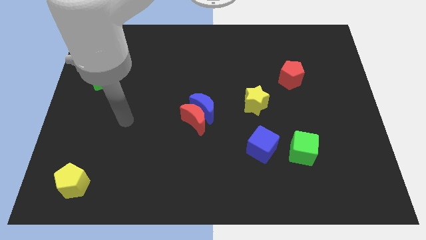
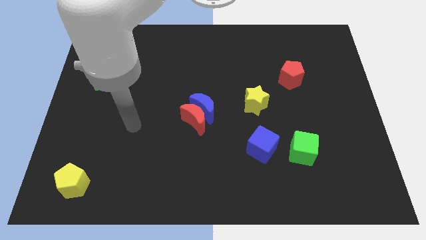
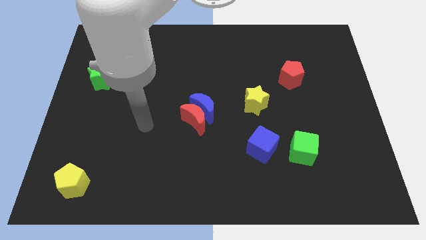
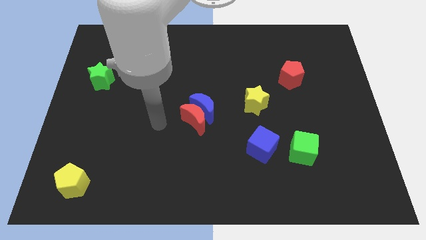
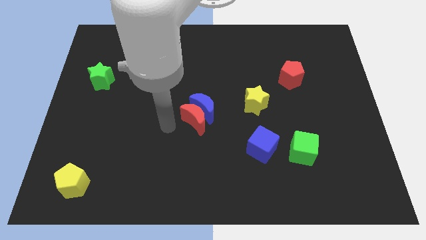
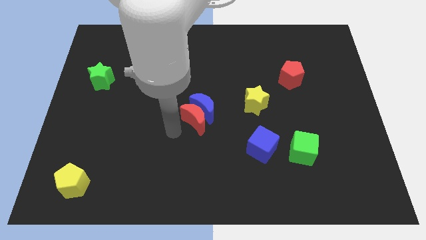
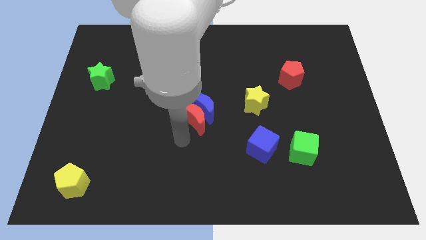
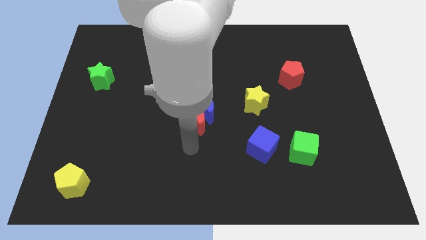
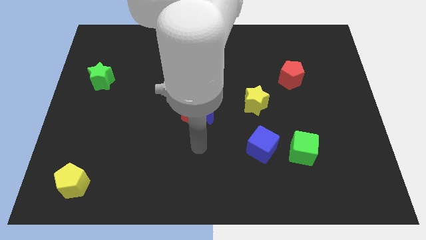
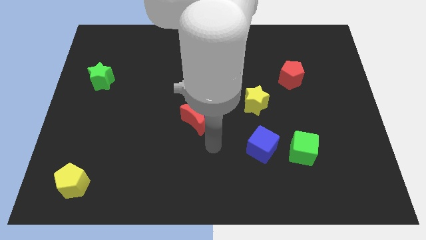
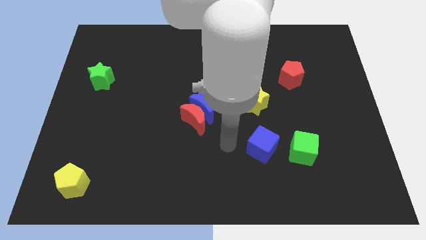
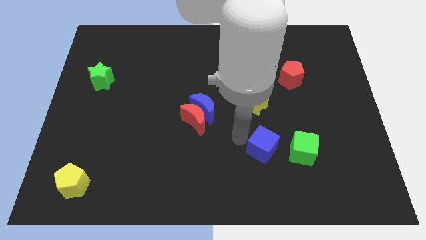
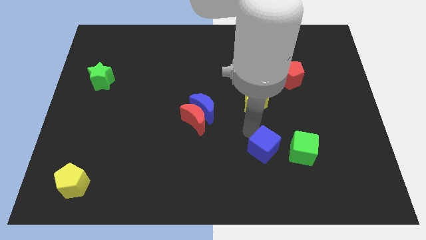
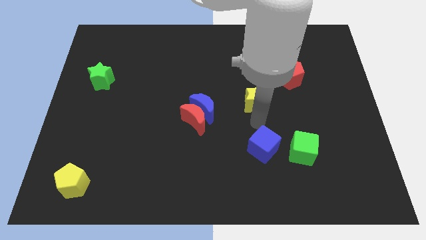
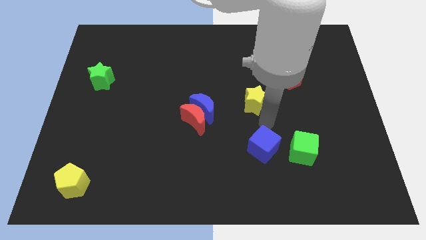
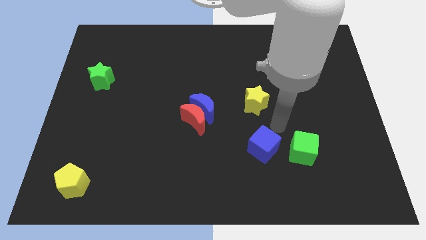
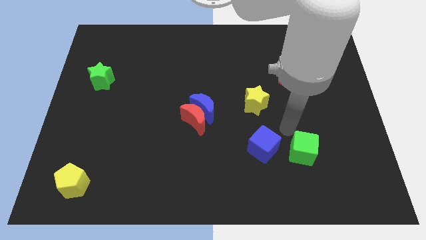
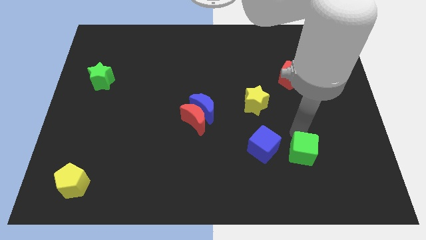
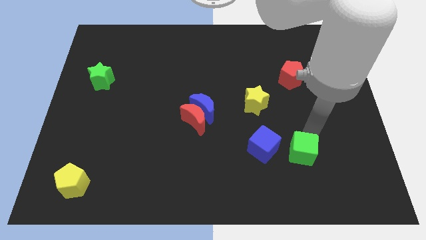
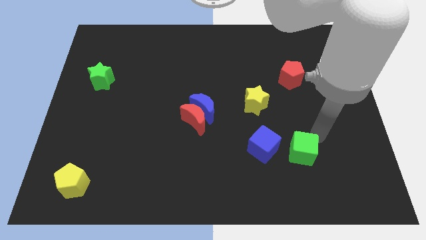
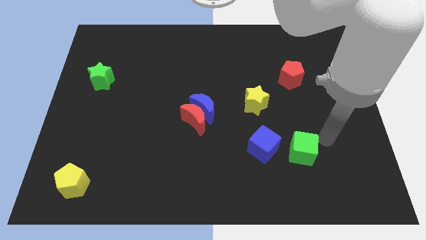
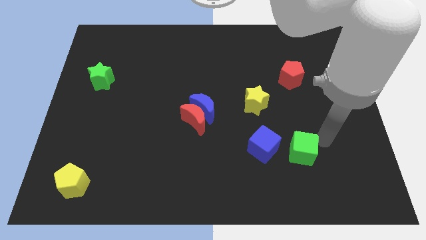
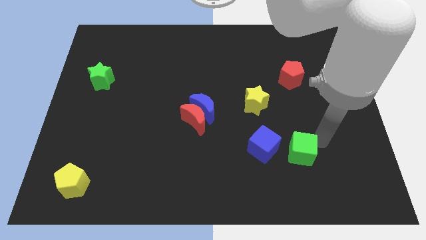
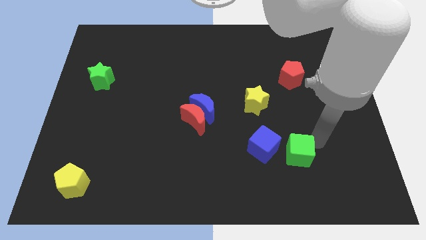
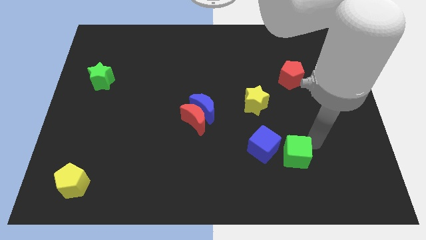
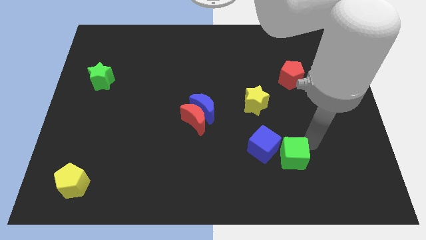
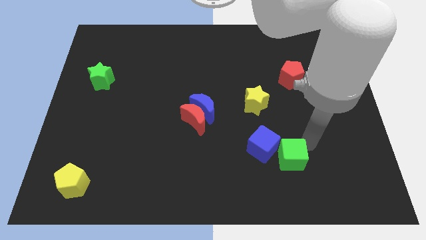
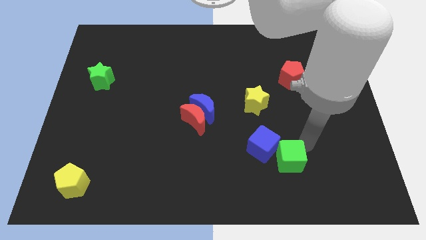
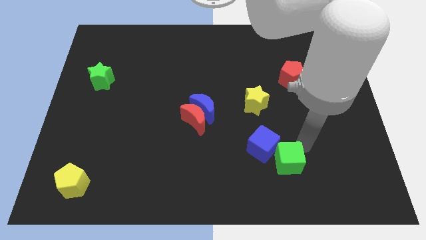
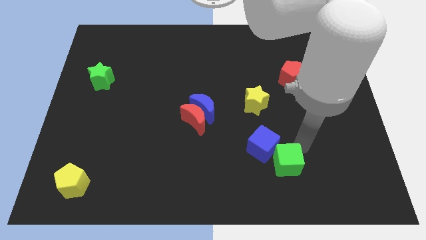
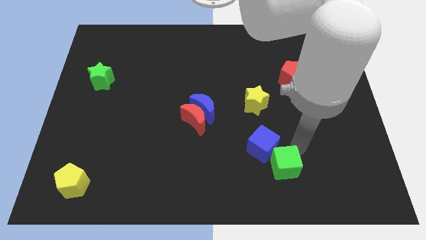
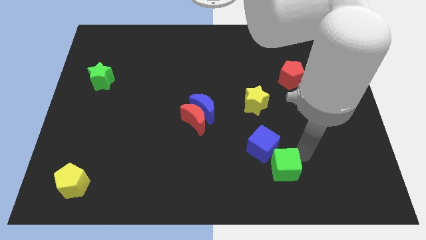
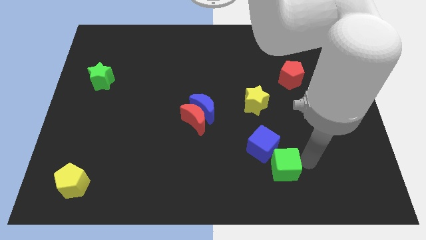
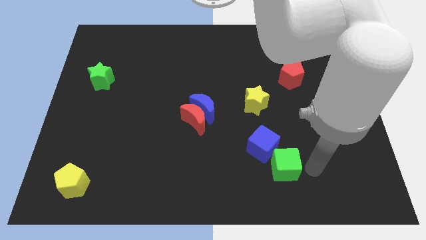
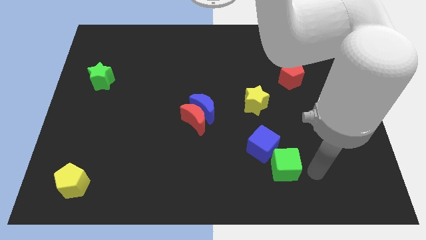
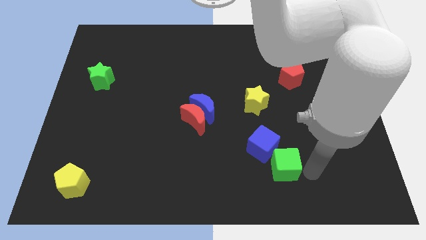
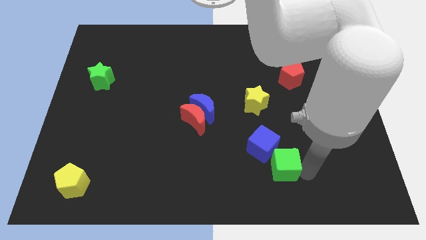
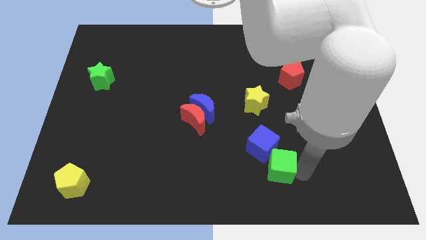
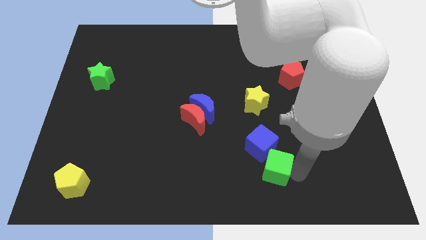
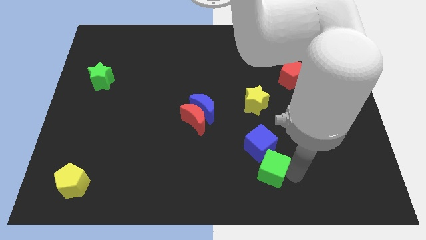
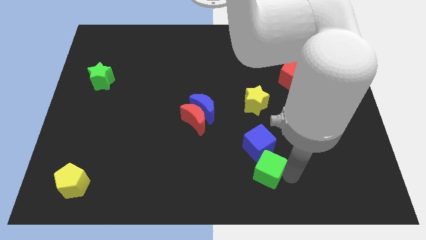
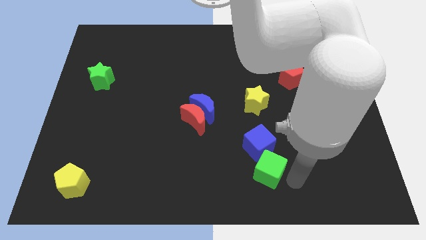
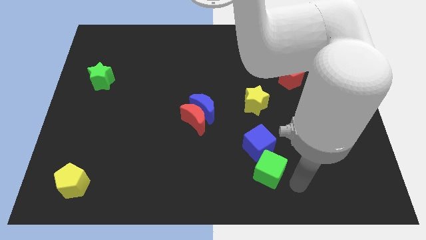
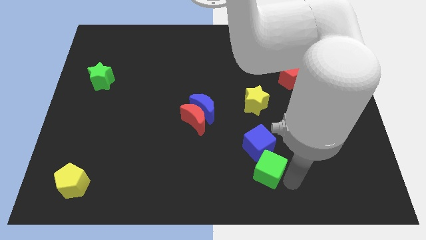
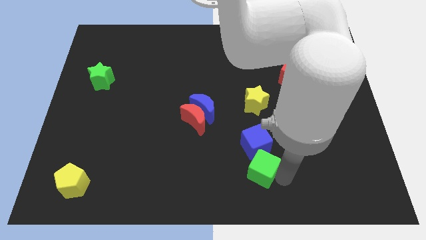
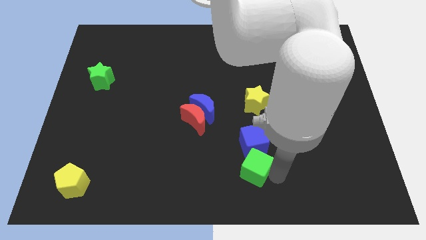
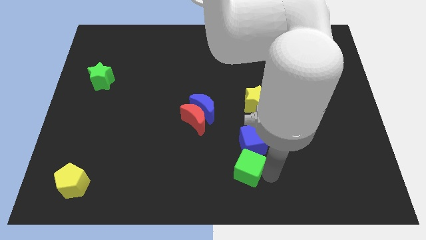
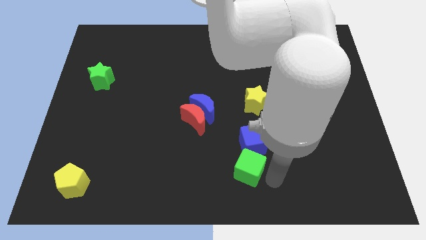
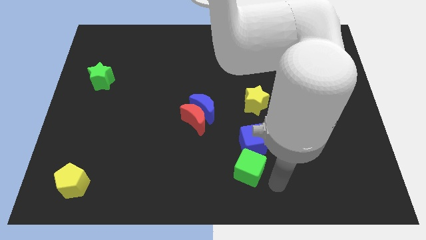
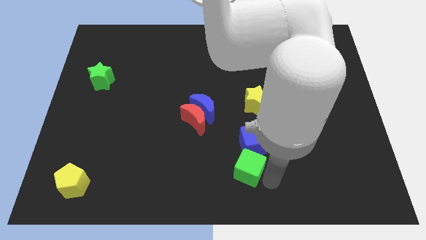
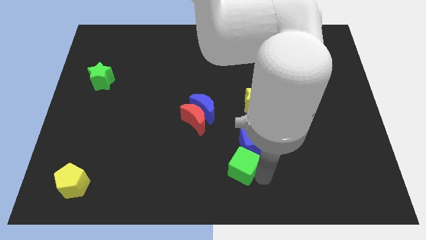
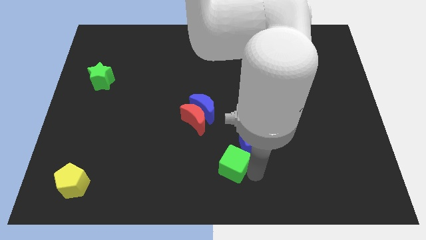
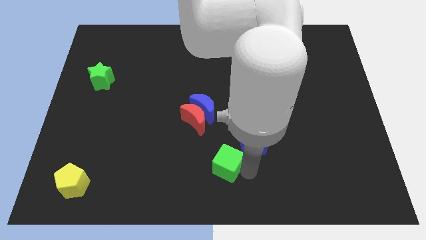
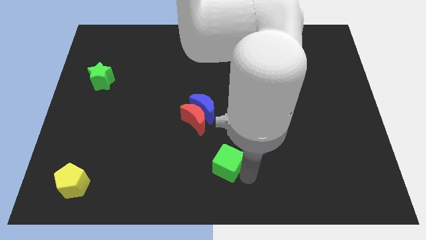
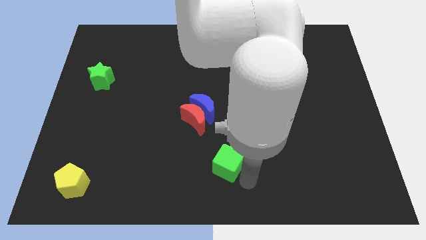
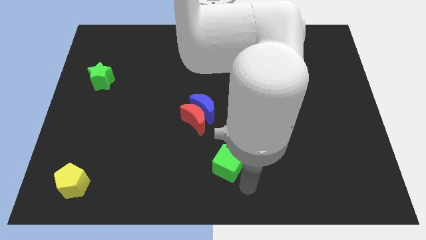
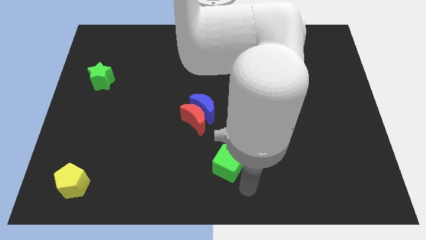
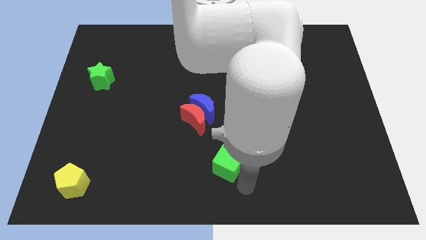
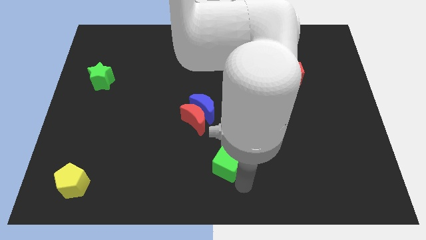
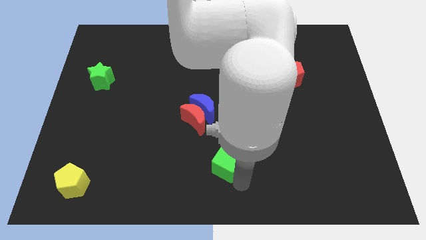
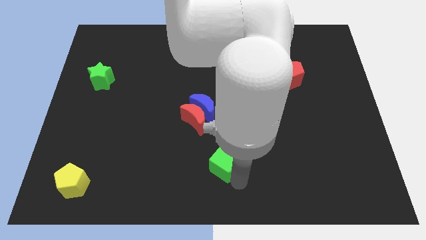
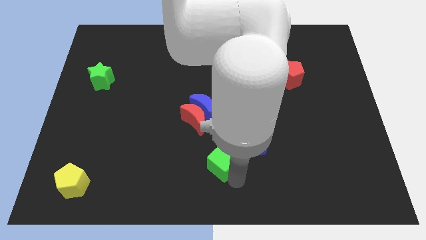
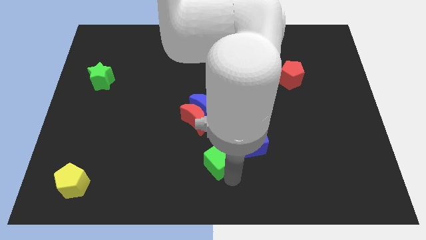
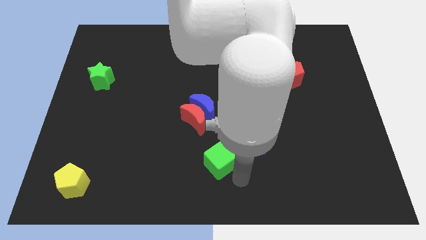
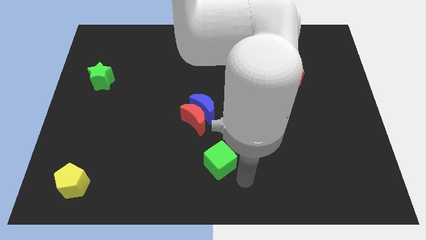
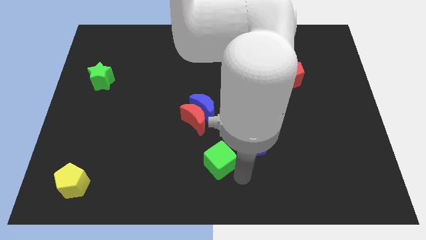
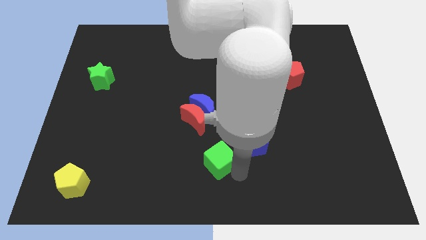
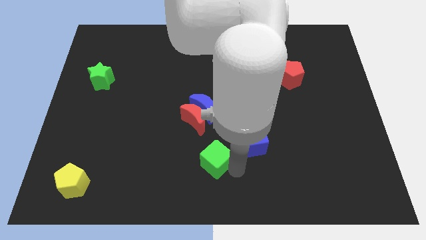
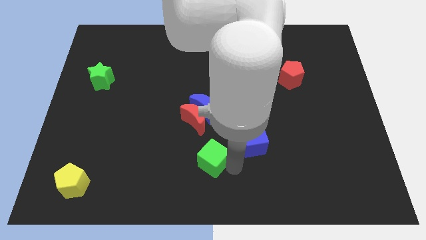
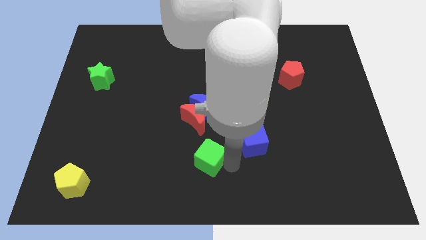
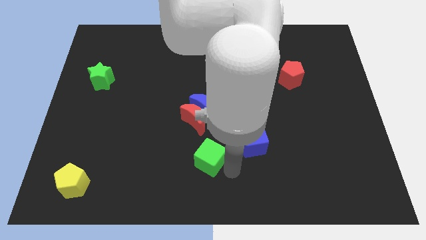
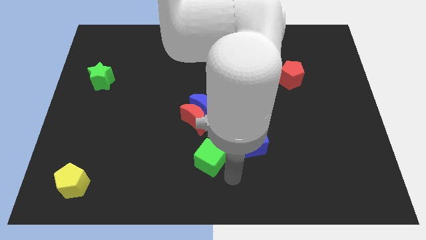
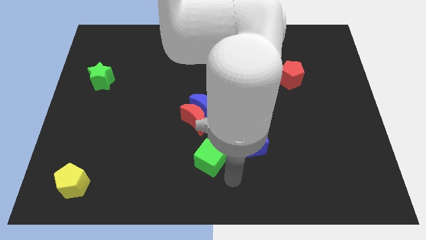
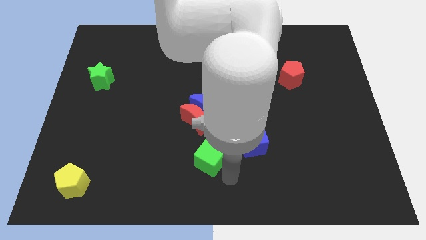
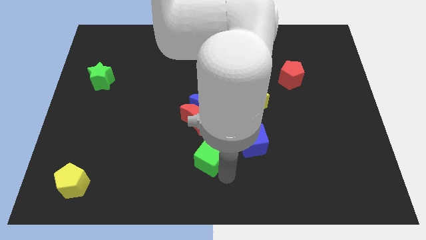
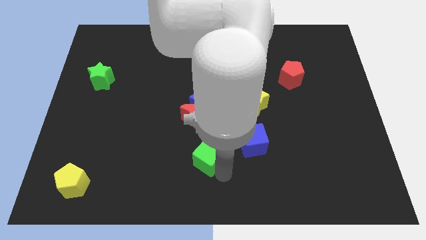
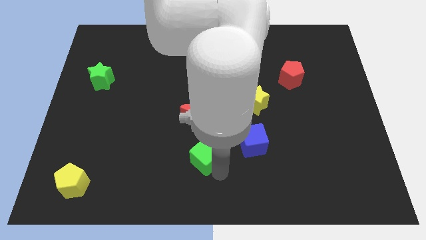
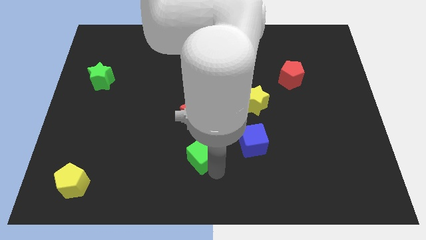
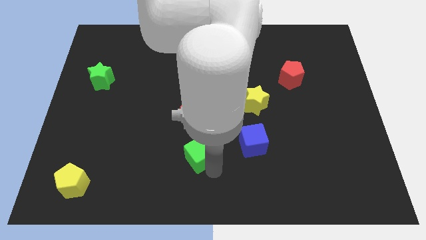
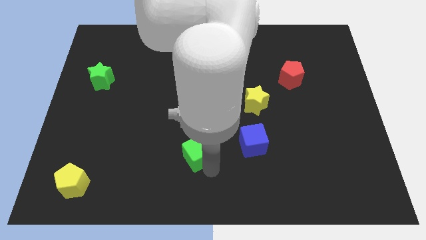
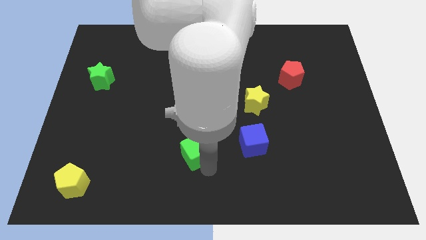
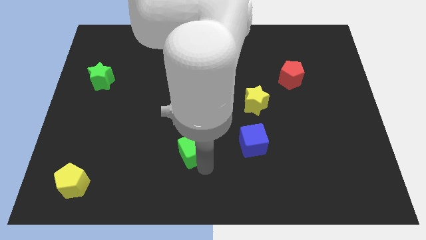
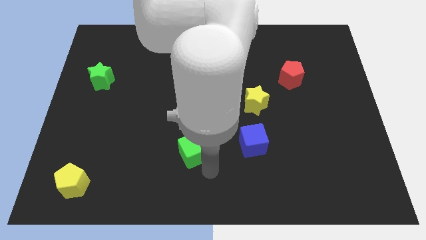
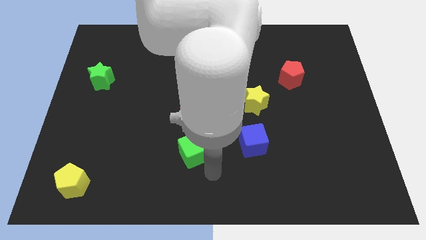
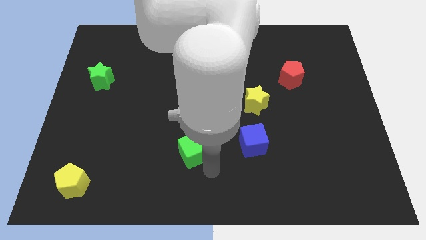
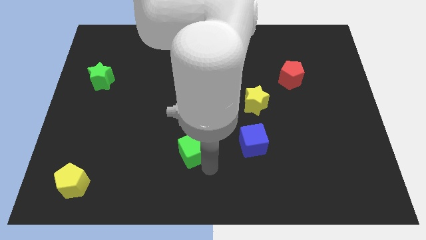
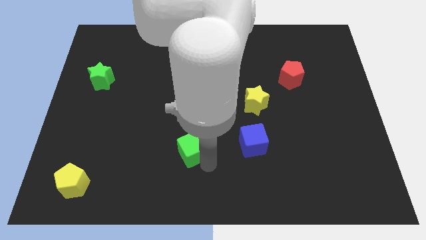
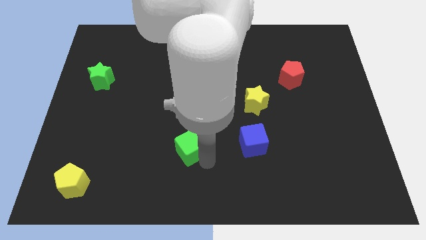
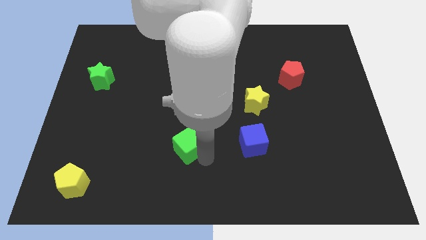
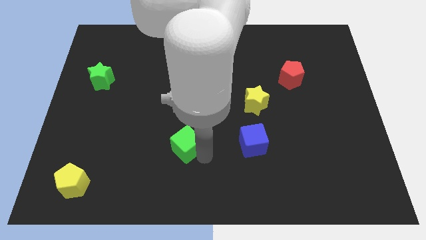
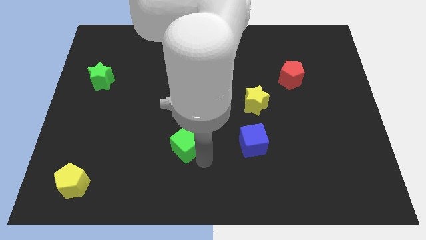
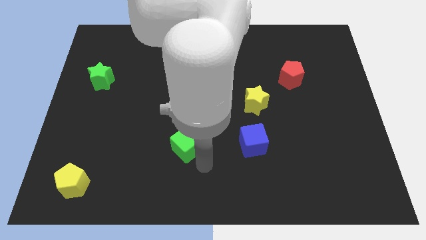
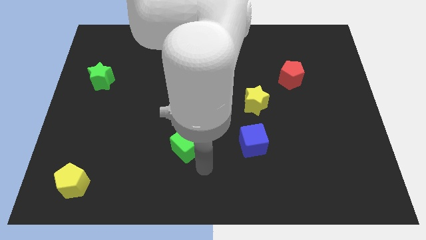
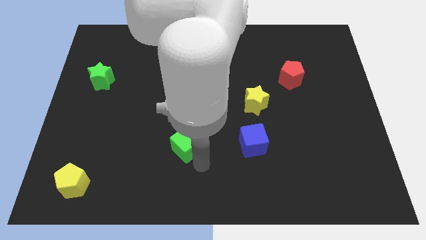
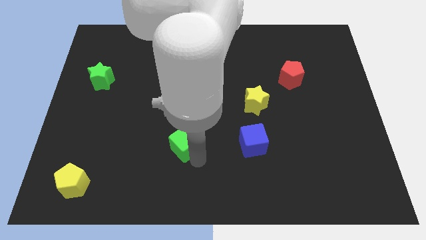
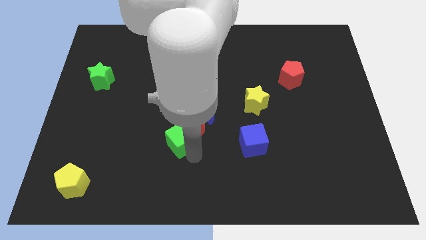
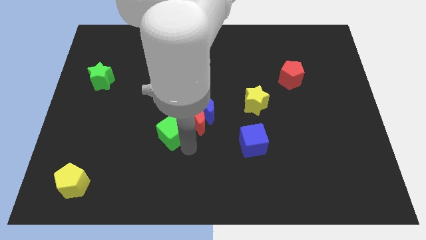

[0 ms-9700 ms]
push the green cube to the left side of the red moon
